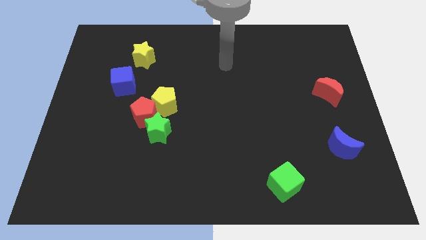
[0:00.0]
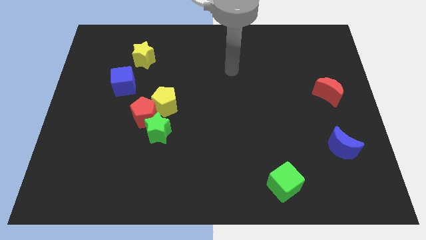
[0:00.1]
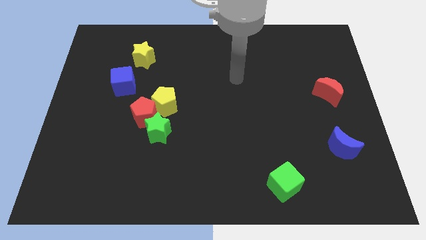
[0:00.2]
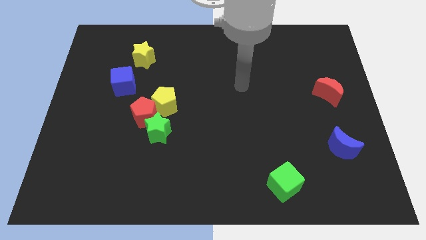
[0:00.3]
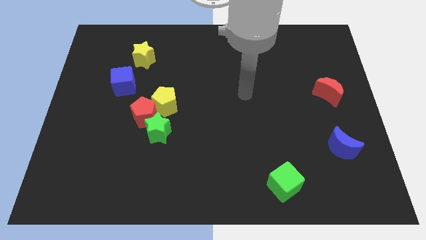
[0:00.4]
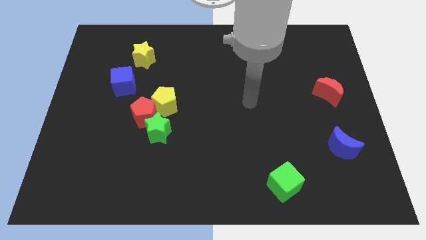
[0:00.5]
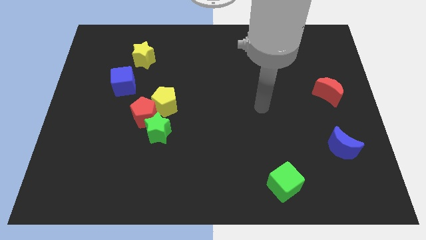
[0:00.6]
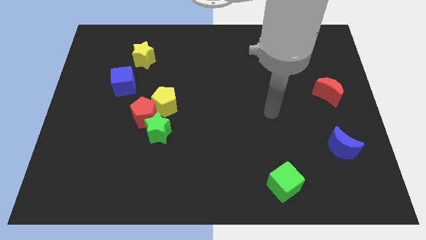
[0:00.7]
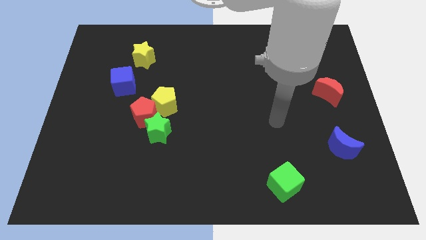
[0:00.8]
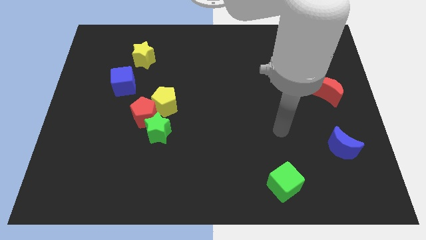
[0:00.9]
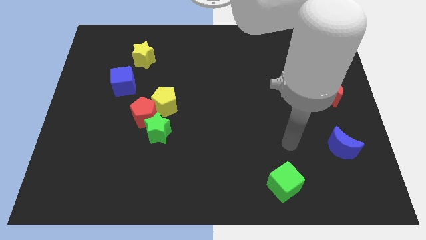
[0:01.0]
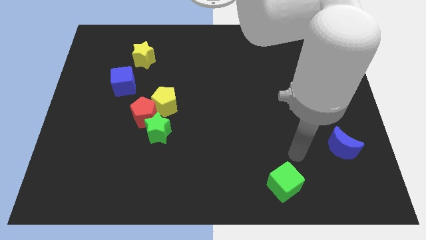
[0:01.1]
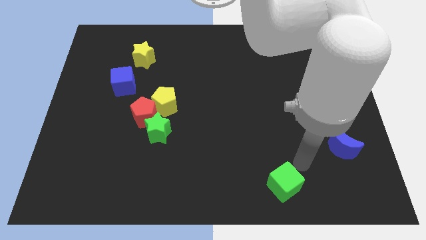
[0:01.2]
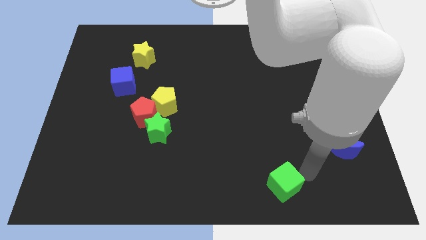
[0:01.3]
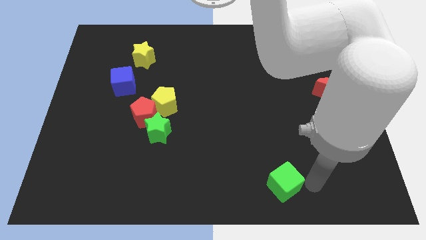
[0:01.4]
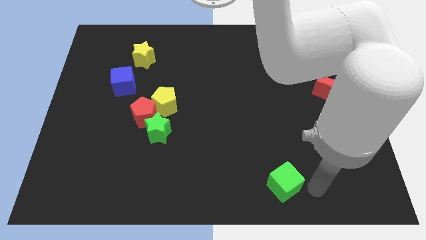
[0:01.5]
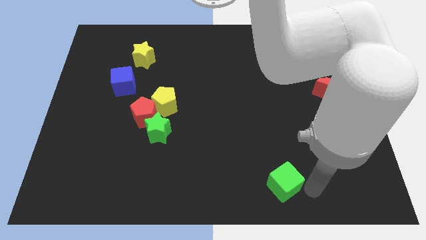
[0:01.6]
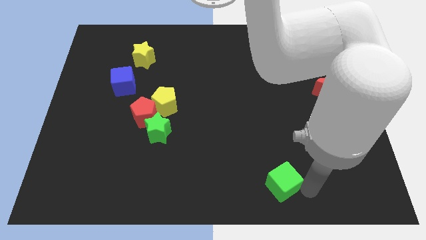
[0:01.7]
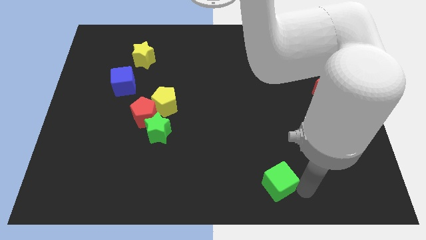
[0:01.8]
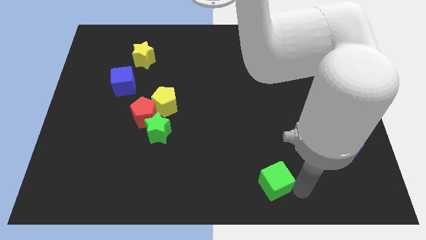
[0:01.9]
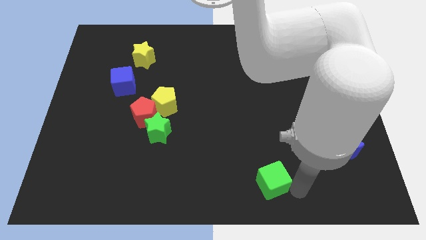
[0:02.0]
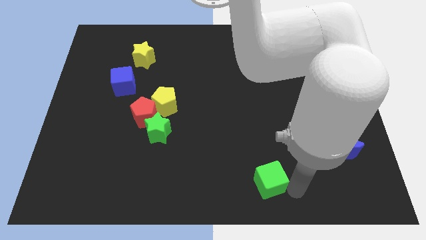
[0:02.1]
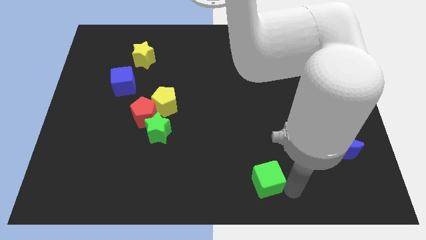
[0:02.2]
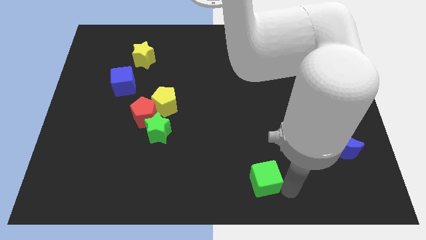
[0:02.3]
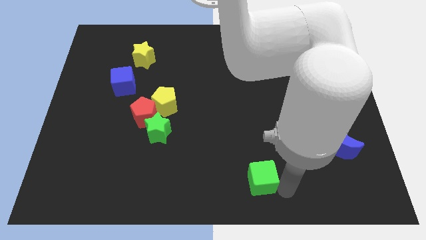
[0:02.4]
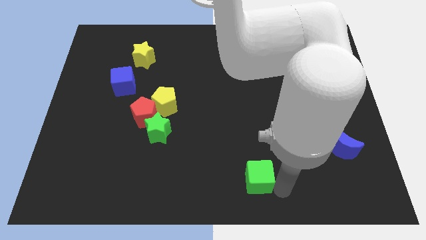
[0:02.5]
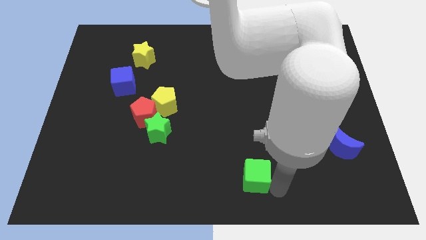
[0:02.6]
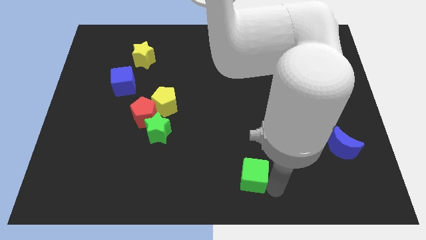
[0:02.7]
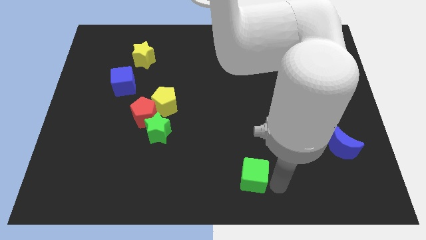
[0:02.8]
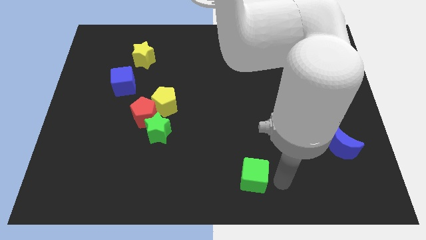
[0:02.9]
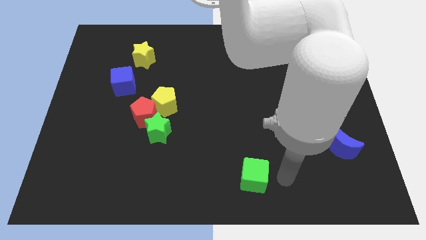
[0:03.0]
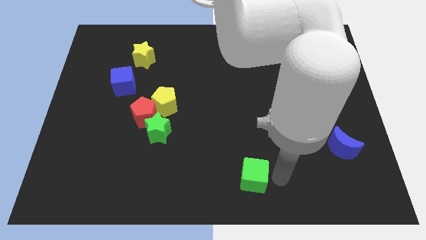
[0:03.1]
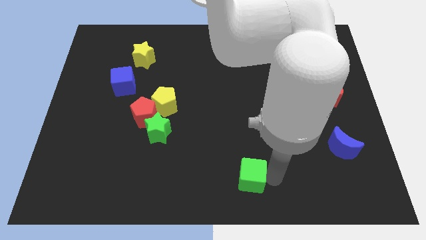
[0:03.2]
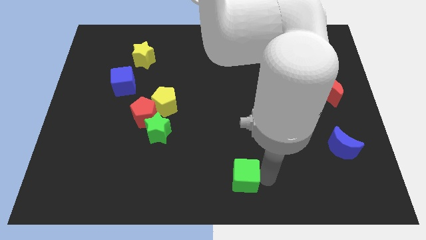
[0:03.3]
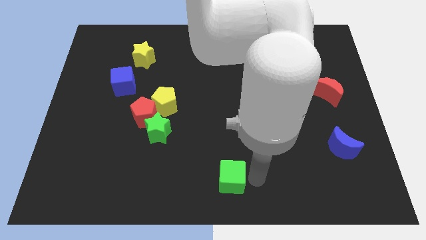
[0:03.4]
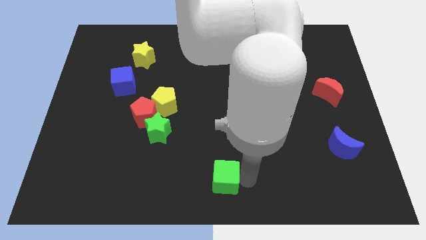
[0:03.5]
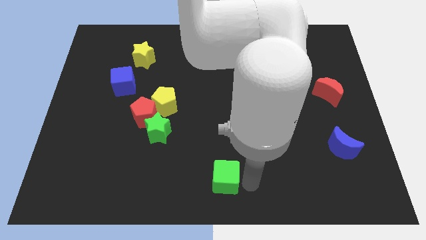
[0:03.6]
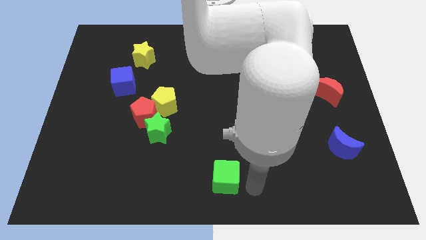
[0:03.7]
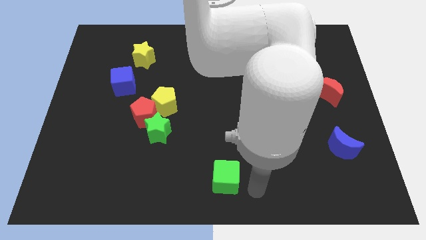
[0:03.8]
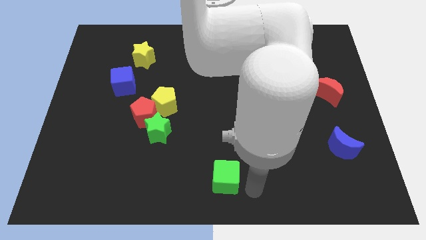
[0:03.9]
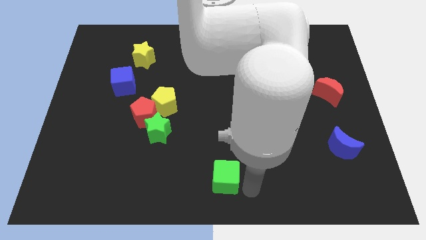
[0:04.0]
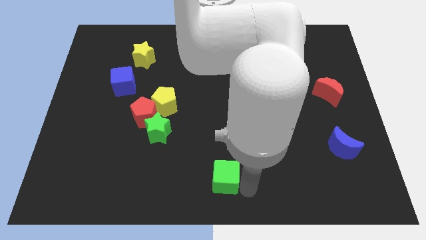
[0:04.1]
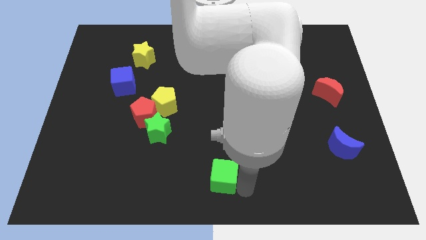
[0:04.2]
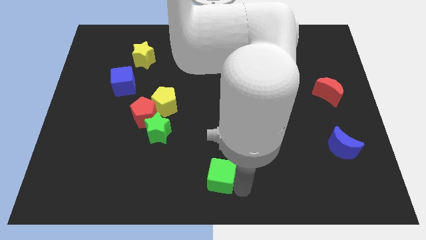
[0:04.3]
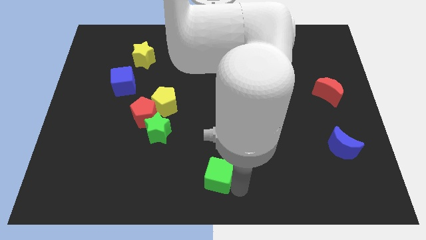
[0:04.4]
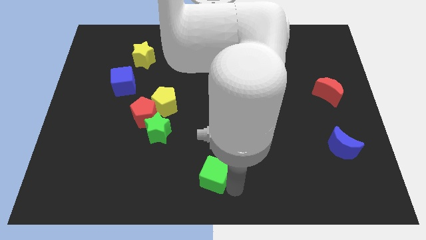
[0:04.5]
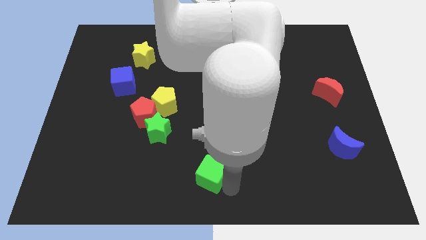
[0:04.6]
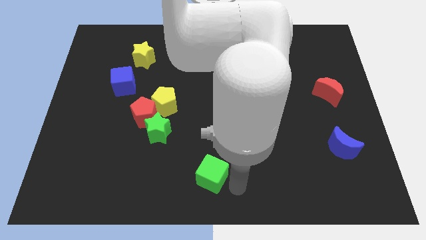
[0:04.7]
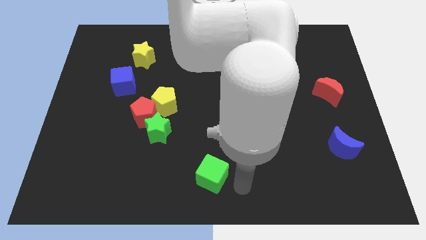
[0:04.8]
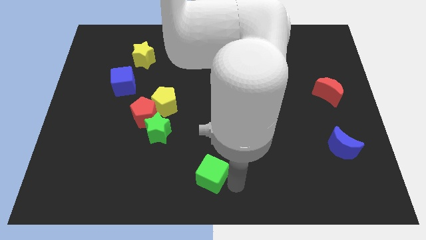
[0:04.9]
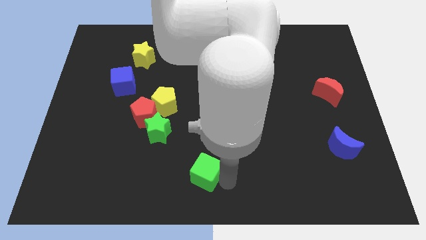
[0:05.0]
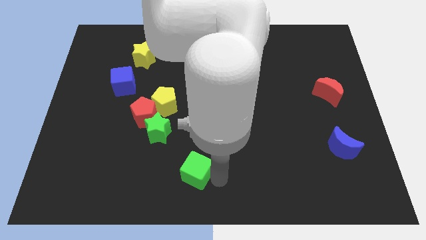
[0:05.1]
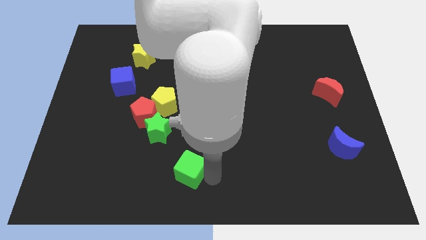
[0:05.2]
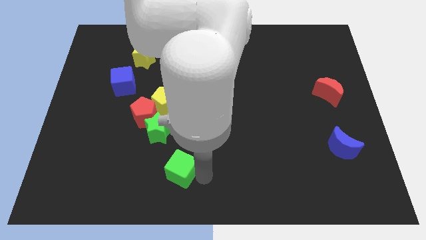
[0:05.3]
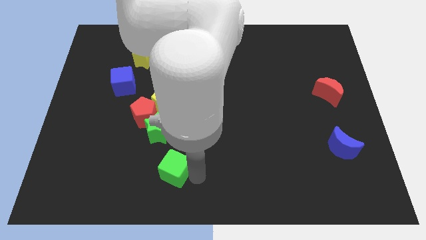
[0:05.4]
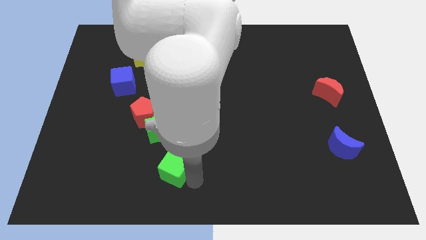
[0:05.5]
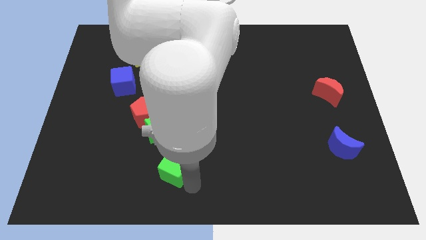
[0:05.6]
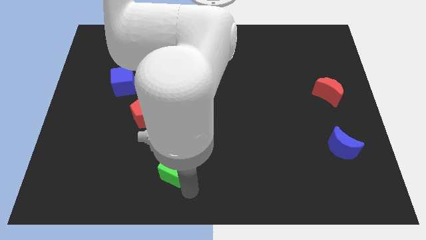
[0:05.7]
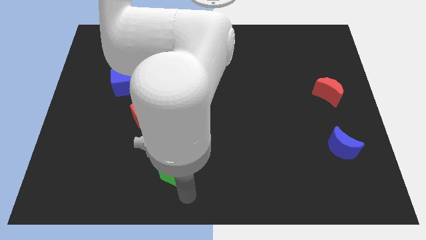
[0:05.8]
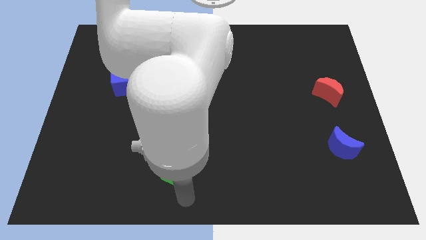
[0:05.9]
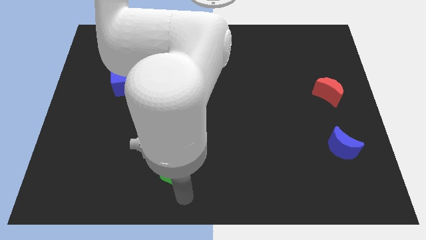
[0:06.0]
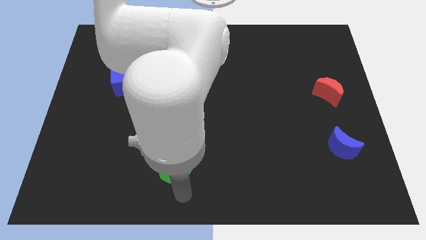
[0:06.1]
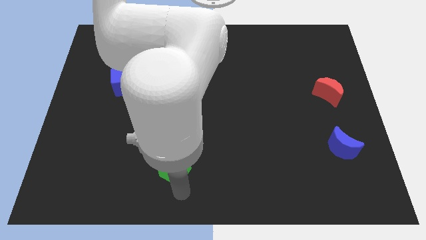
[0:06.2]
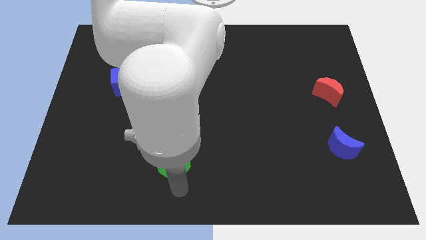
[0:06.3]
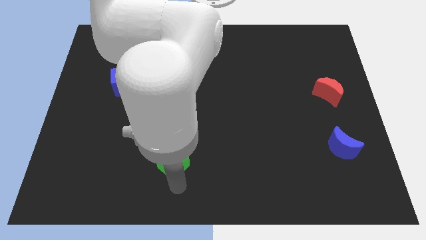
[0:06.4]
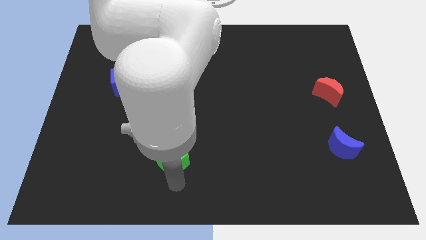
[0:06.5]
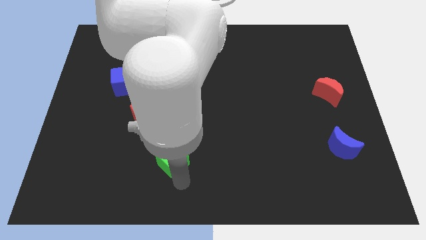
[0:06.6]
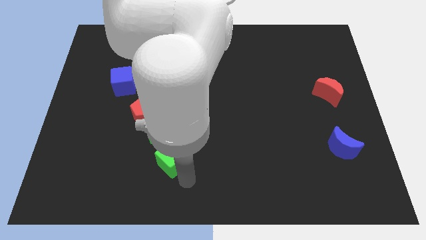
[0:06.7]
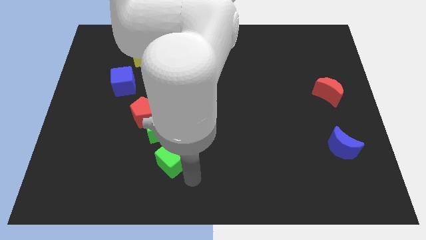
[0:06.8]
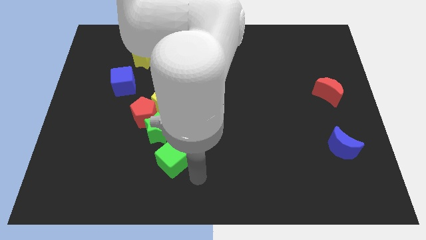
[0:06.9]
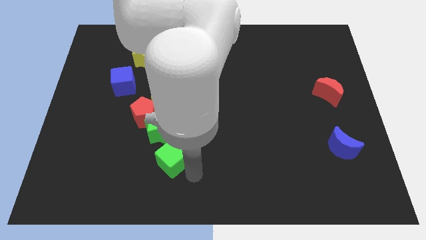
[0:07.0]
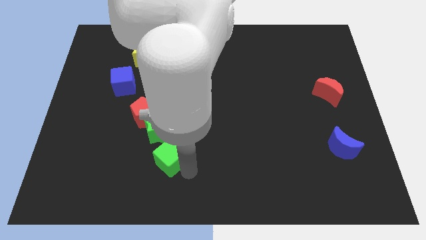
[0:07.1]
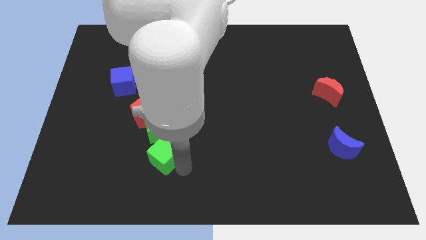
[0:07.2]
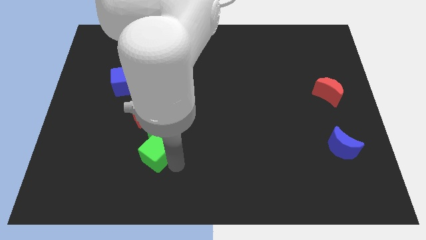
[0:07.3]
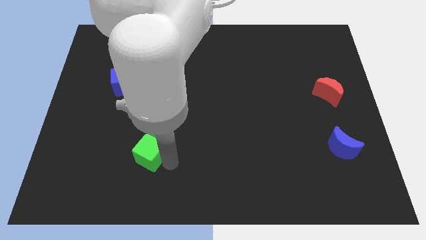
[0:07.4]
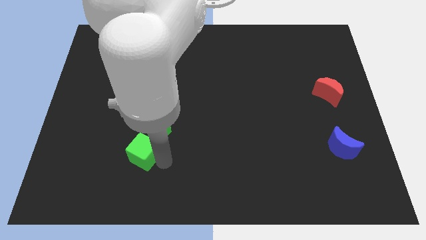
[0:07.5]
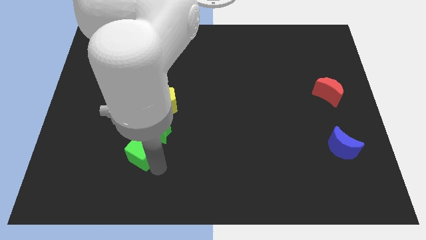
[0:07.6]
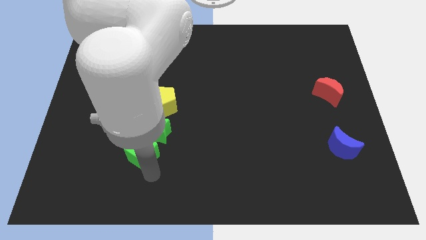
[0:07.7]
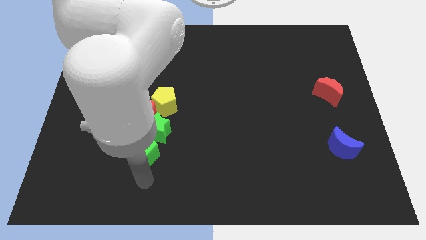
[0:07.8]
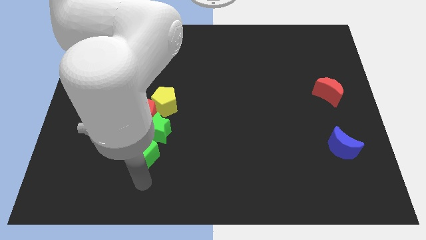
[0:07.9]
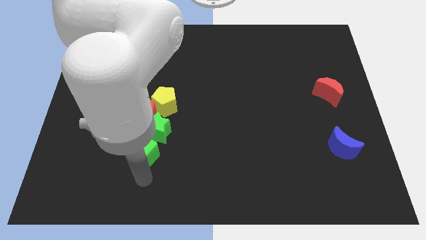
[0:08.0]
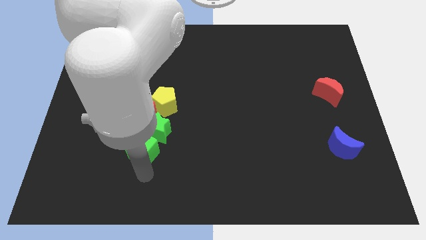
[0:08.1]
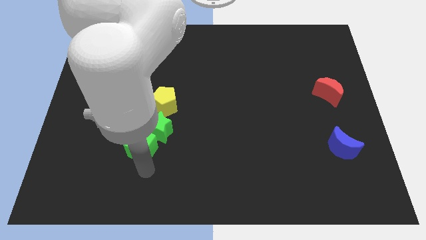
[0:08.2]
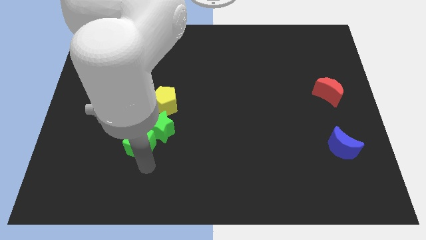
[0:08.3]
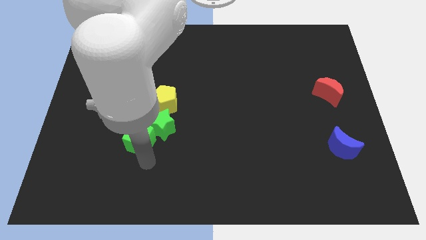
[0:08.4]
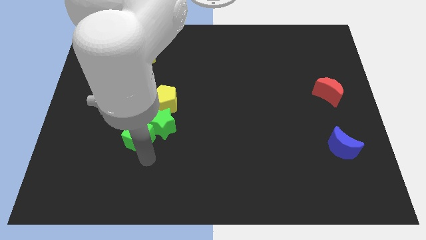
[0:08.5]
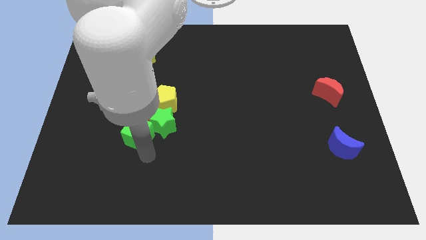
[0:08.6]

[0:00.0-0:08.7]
move the green cube next to the red pentagon
